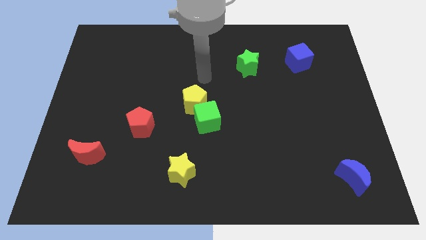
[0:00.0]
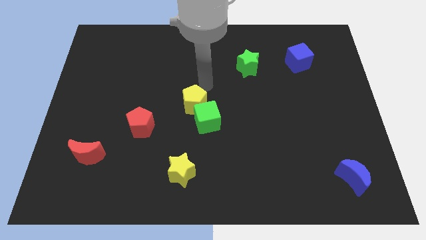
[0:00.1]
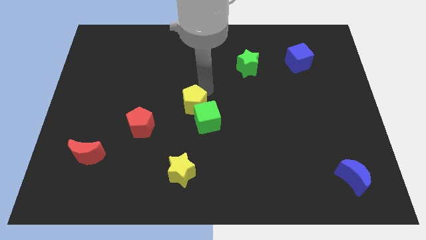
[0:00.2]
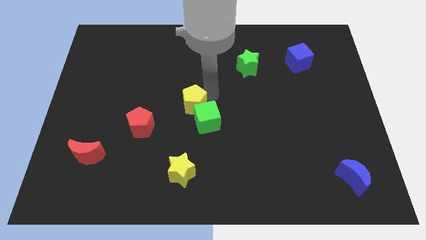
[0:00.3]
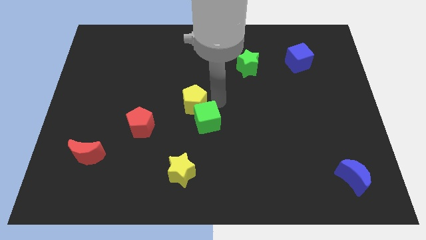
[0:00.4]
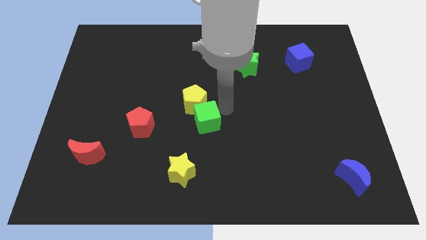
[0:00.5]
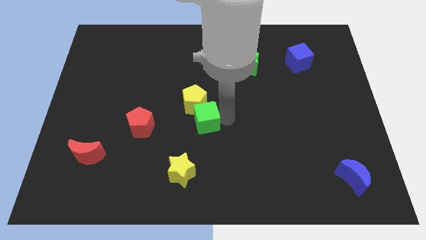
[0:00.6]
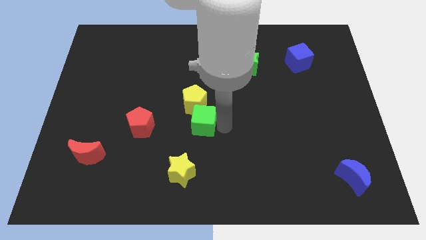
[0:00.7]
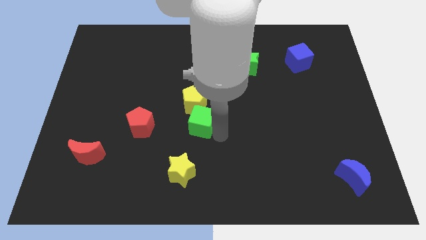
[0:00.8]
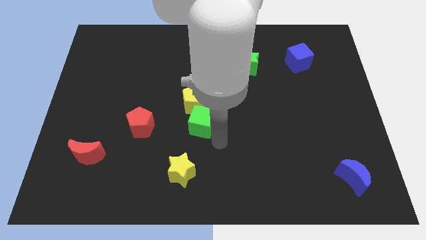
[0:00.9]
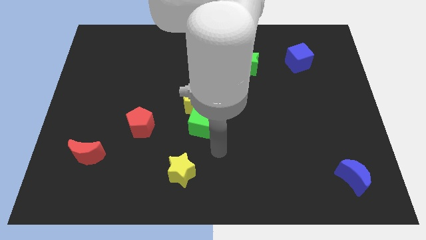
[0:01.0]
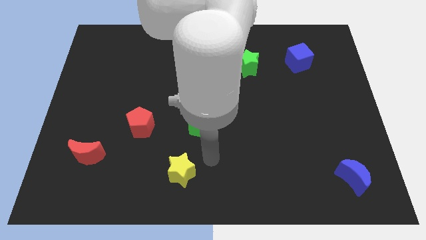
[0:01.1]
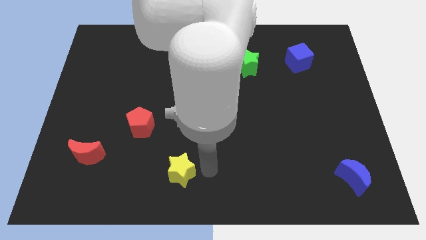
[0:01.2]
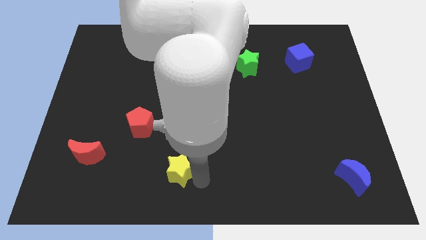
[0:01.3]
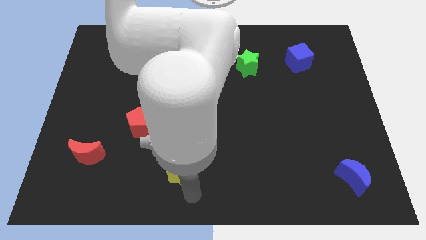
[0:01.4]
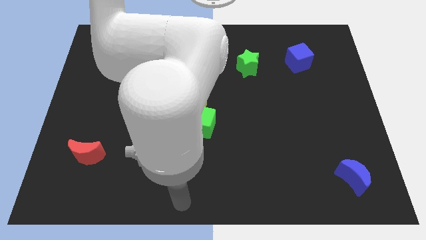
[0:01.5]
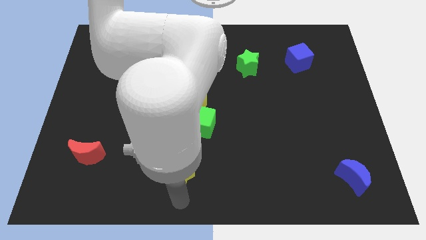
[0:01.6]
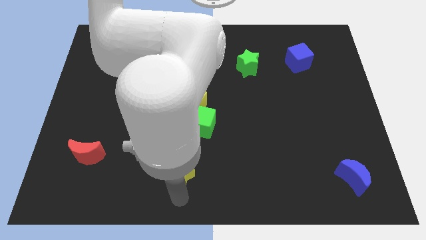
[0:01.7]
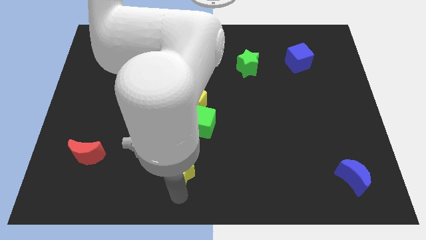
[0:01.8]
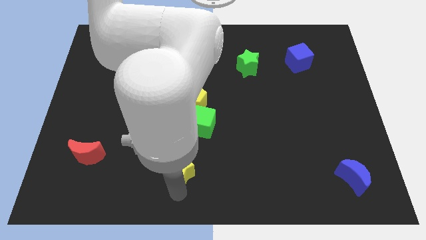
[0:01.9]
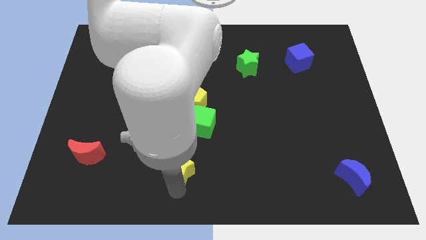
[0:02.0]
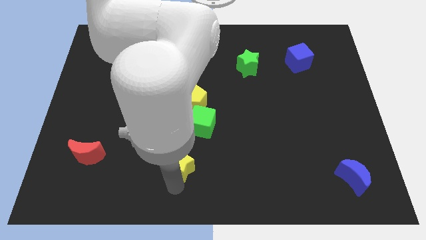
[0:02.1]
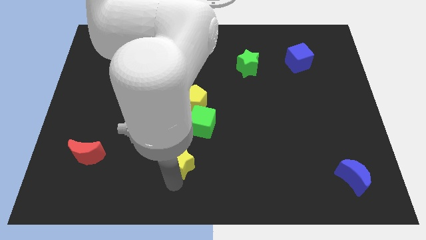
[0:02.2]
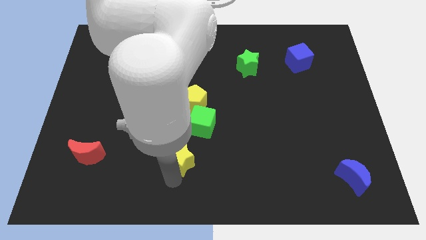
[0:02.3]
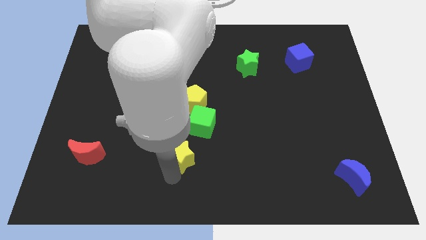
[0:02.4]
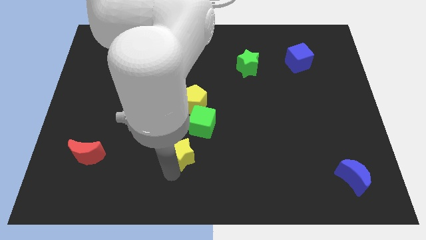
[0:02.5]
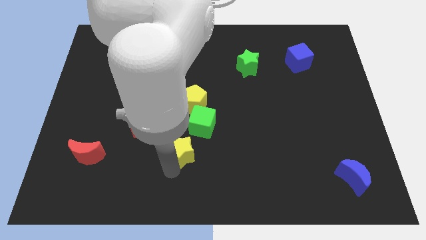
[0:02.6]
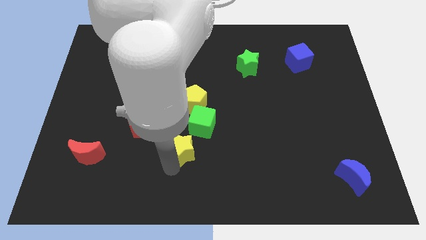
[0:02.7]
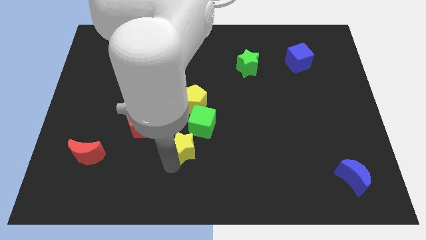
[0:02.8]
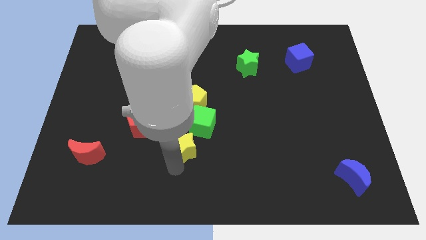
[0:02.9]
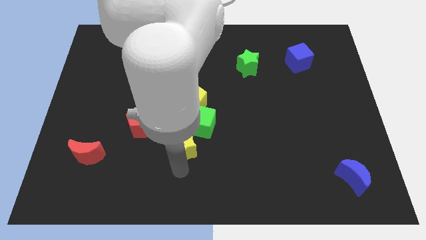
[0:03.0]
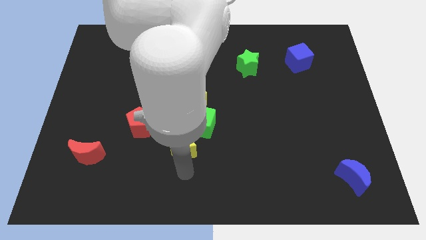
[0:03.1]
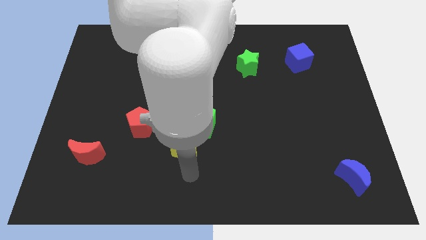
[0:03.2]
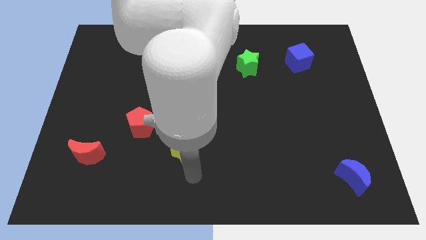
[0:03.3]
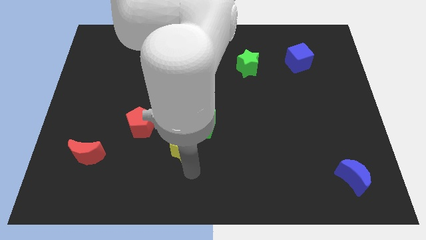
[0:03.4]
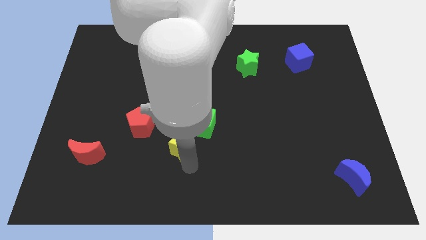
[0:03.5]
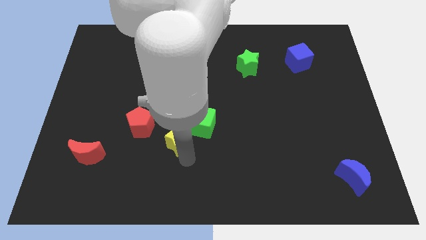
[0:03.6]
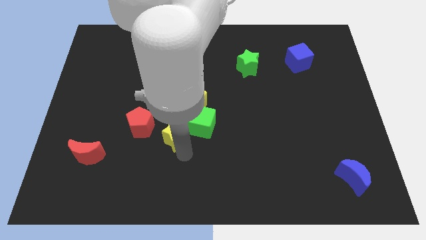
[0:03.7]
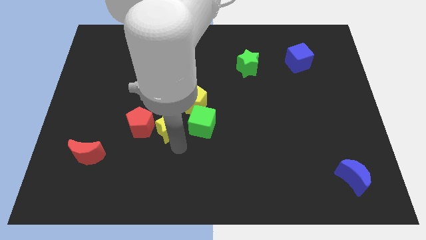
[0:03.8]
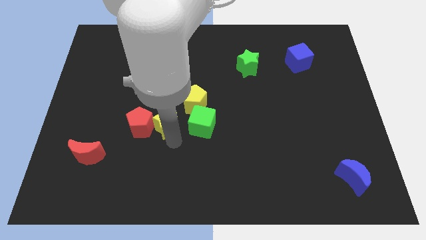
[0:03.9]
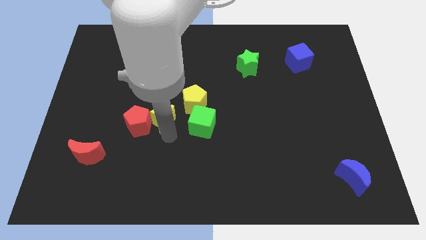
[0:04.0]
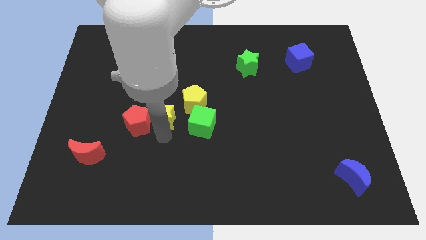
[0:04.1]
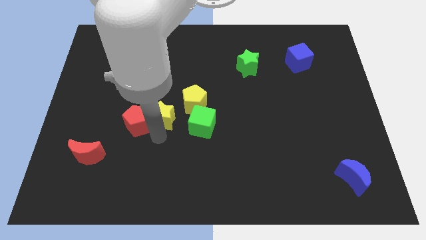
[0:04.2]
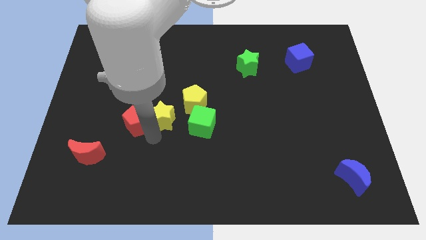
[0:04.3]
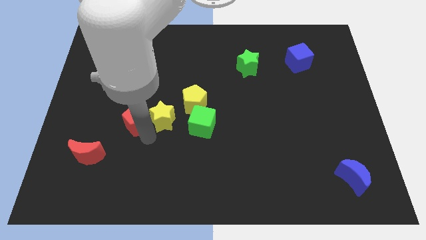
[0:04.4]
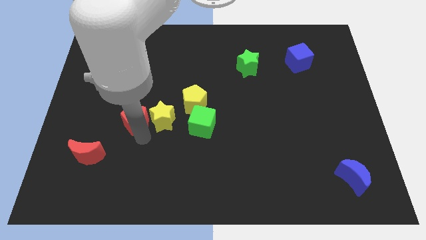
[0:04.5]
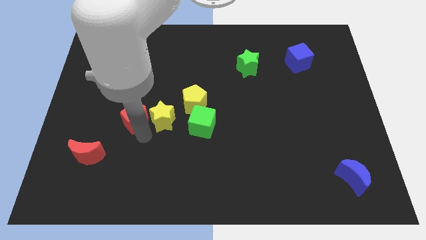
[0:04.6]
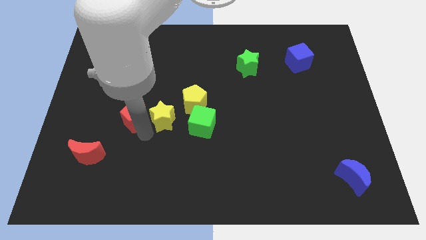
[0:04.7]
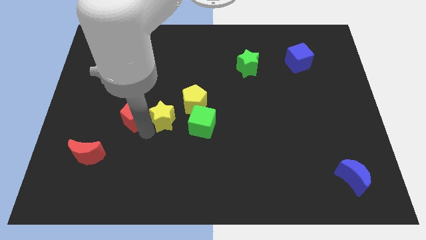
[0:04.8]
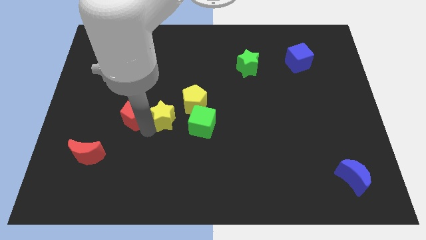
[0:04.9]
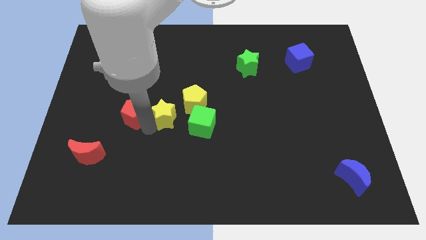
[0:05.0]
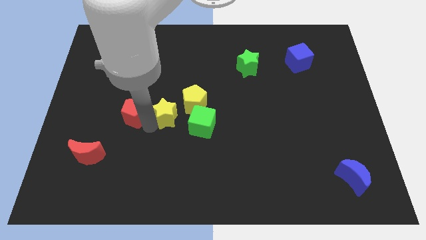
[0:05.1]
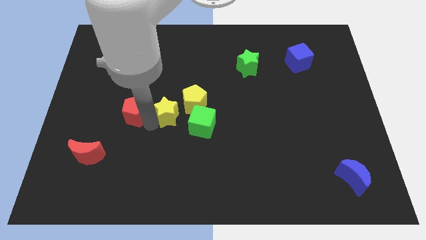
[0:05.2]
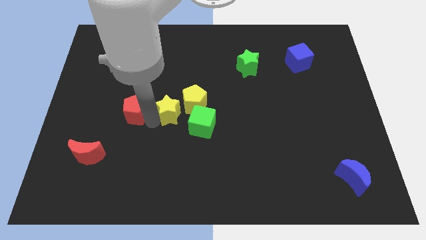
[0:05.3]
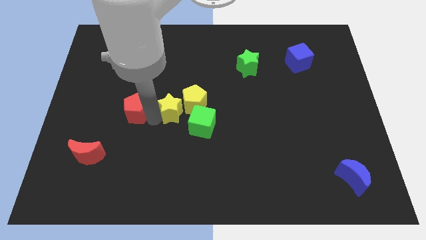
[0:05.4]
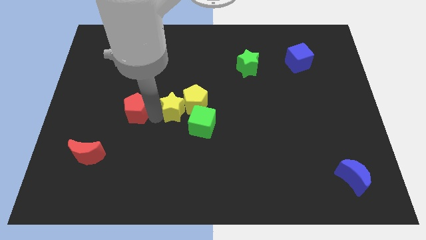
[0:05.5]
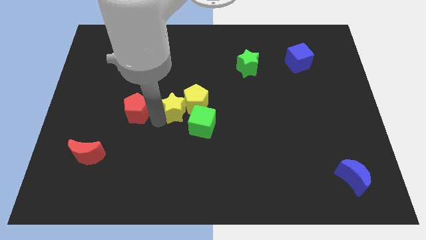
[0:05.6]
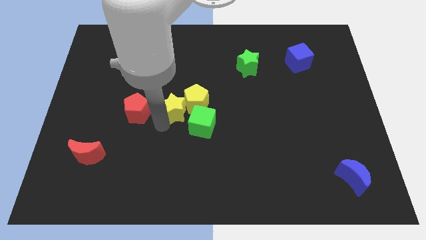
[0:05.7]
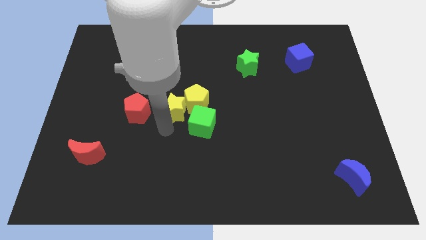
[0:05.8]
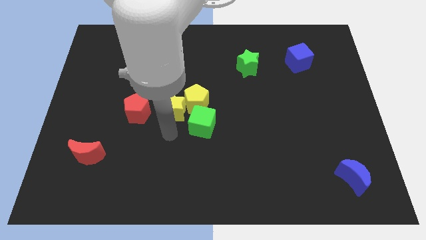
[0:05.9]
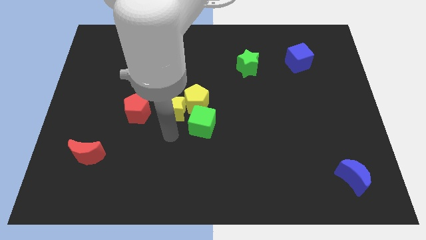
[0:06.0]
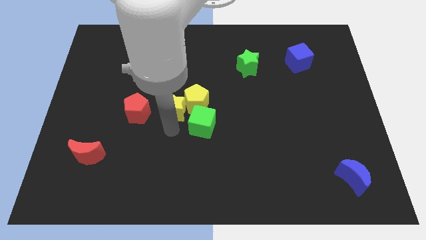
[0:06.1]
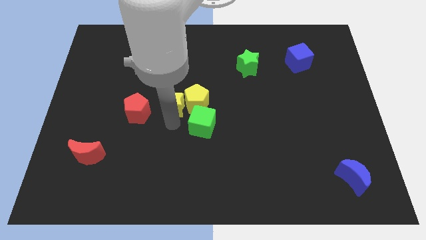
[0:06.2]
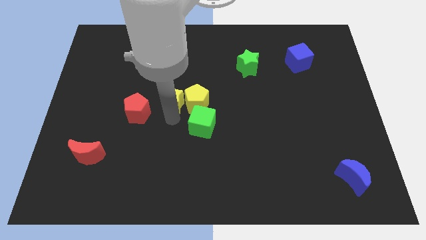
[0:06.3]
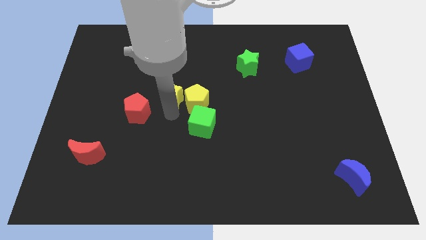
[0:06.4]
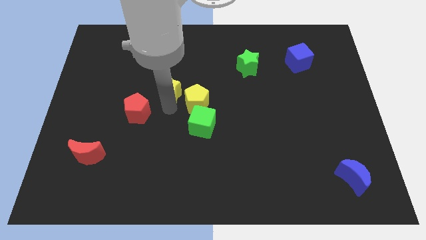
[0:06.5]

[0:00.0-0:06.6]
move the yellow star upwards

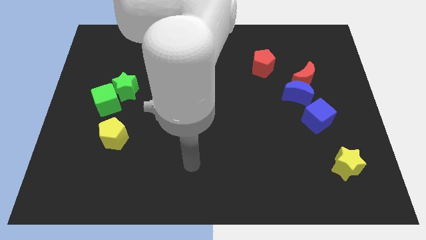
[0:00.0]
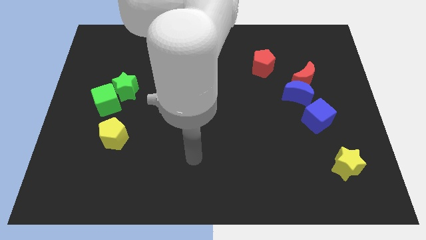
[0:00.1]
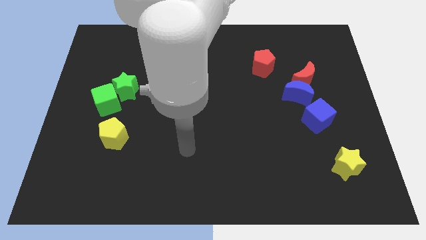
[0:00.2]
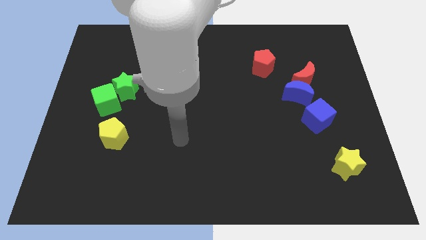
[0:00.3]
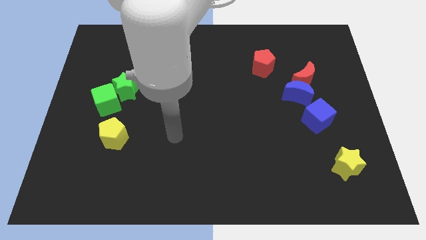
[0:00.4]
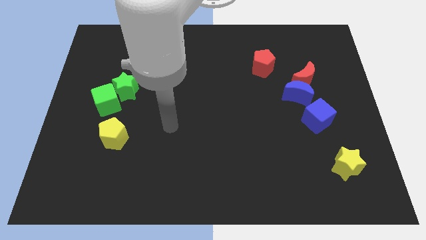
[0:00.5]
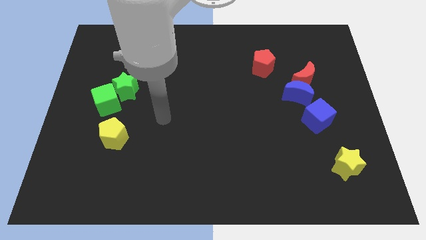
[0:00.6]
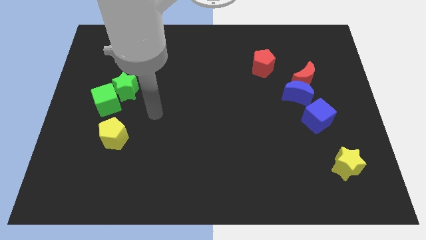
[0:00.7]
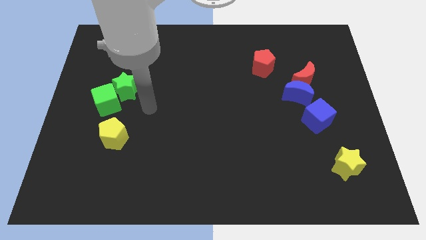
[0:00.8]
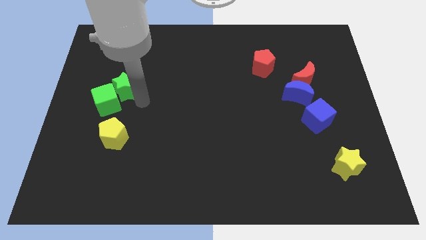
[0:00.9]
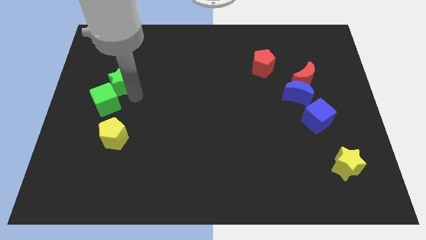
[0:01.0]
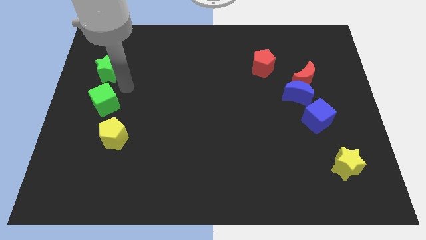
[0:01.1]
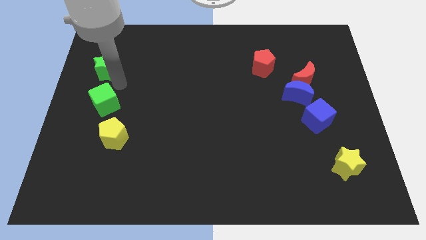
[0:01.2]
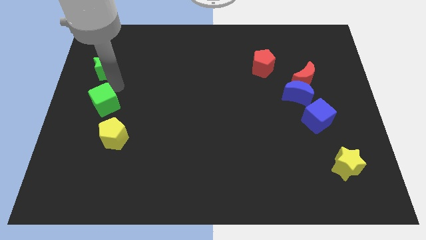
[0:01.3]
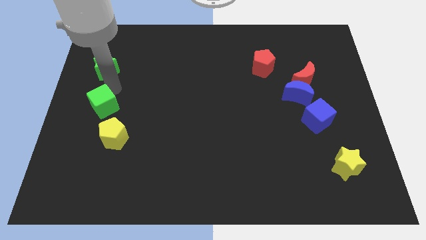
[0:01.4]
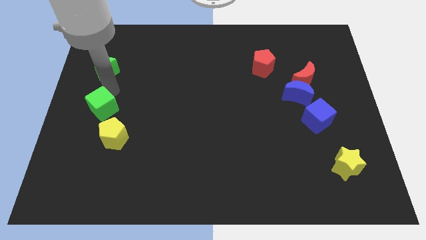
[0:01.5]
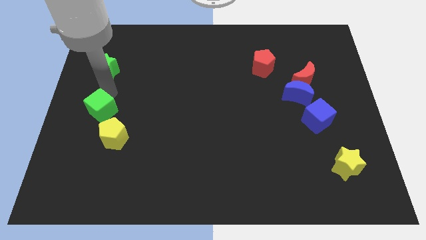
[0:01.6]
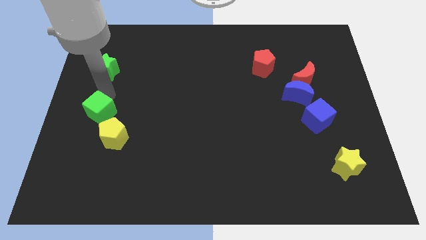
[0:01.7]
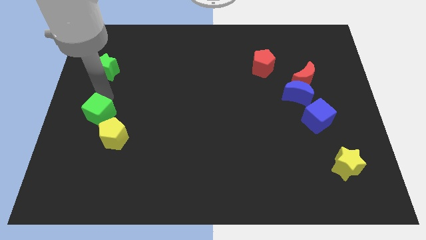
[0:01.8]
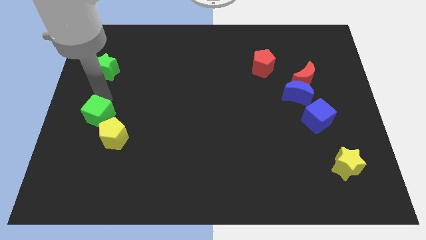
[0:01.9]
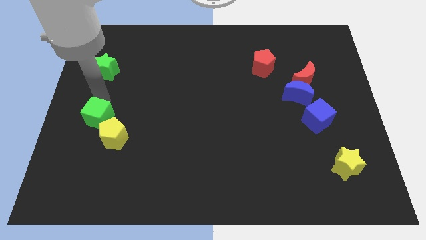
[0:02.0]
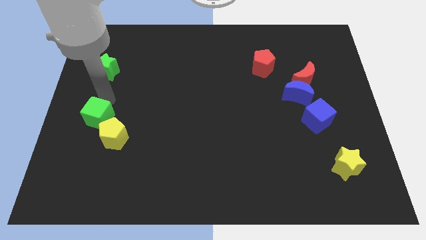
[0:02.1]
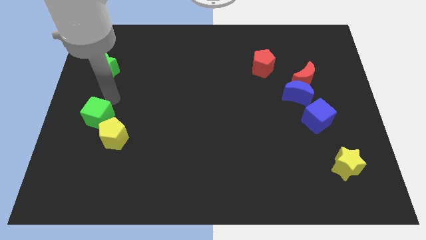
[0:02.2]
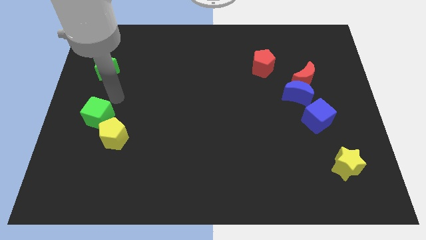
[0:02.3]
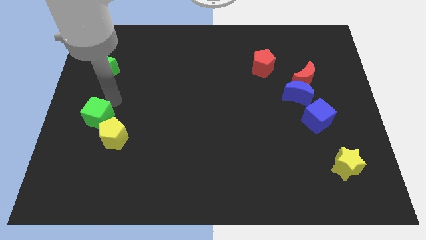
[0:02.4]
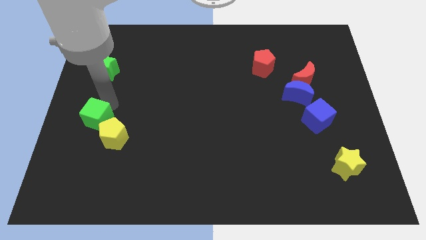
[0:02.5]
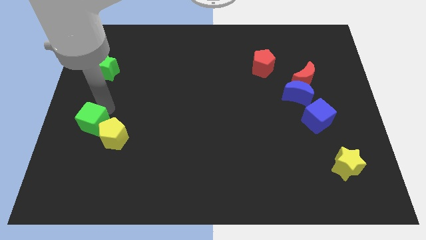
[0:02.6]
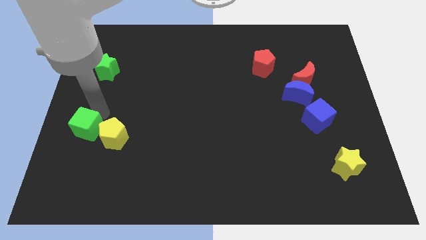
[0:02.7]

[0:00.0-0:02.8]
move the green cube a little bit down
